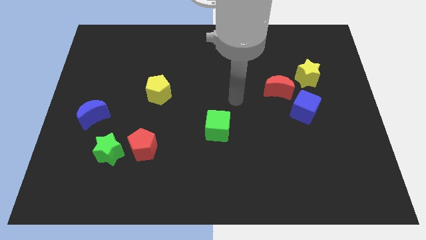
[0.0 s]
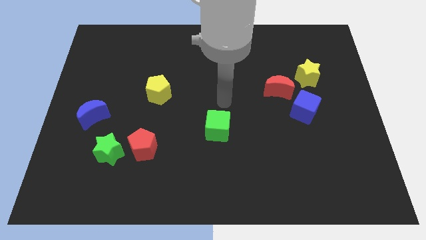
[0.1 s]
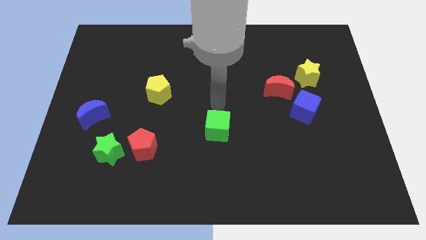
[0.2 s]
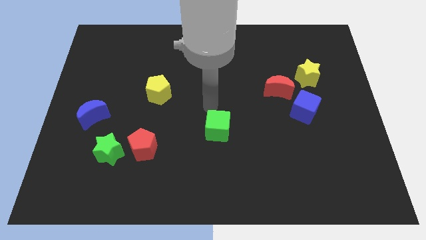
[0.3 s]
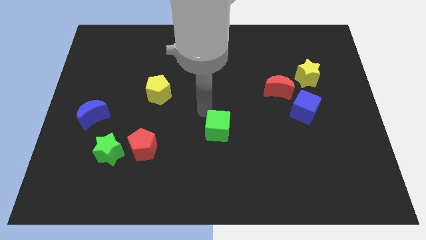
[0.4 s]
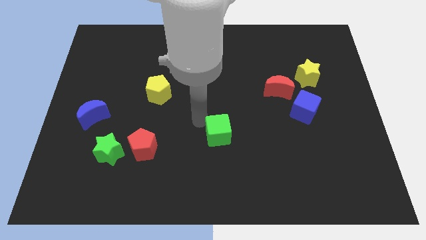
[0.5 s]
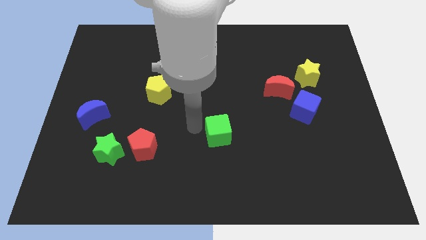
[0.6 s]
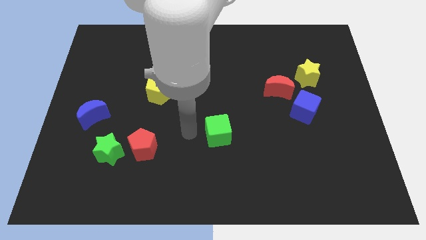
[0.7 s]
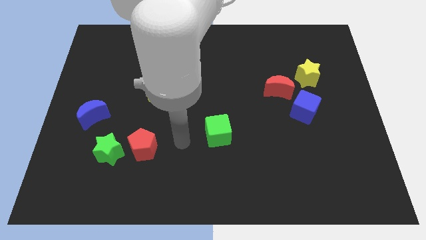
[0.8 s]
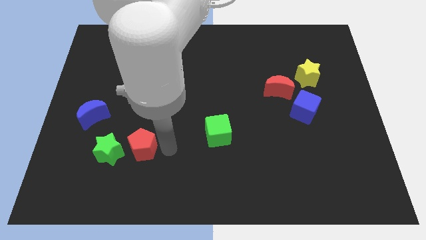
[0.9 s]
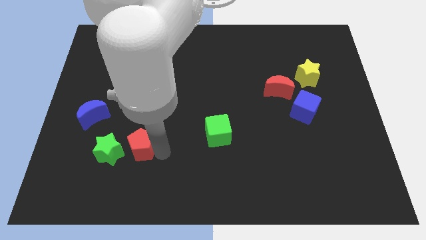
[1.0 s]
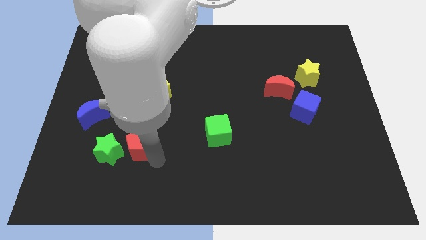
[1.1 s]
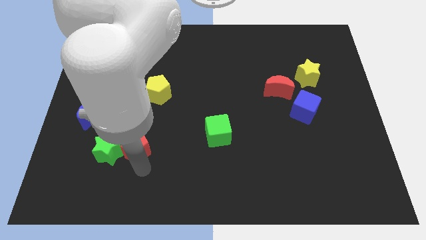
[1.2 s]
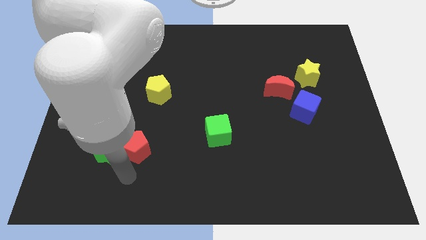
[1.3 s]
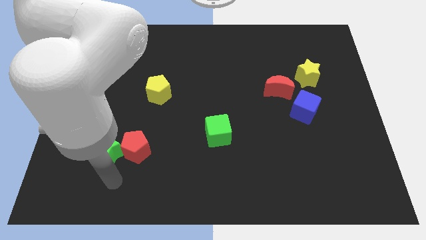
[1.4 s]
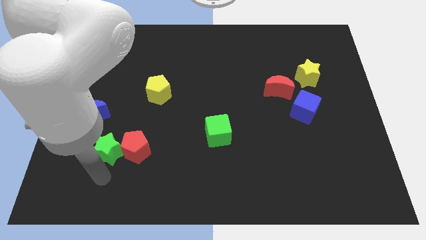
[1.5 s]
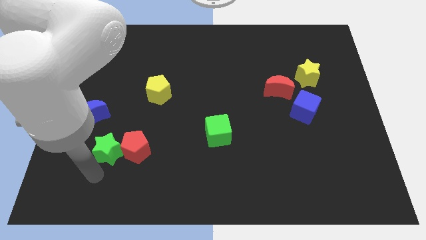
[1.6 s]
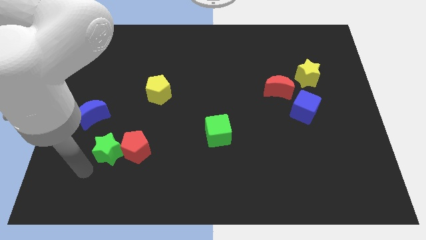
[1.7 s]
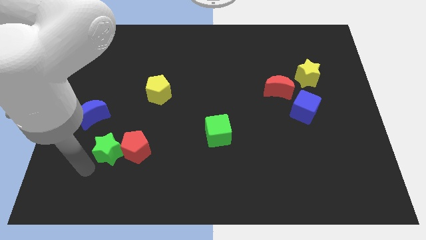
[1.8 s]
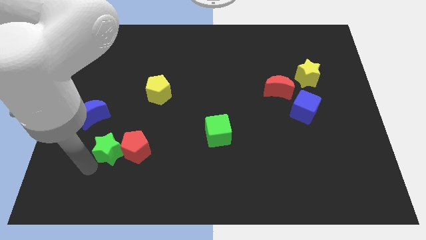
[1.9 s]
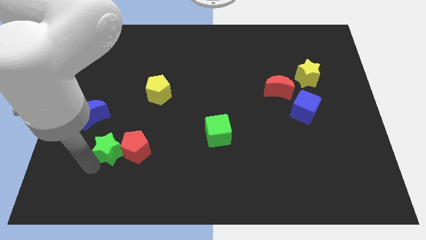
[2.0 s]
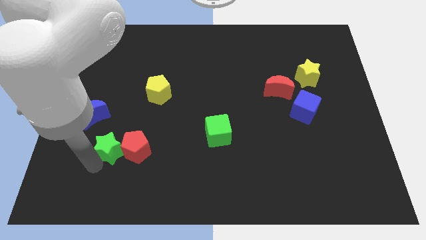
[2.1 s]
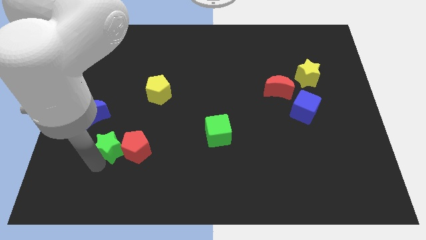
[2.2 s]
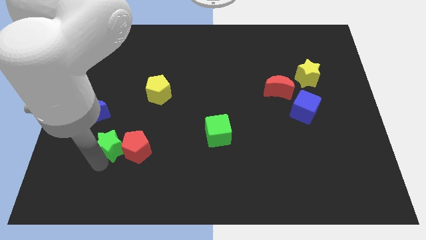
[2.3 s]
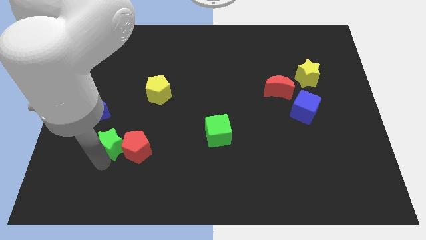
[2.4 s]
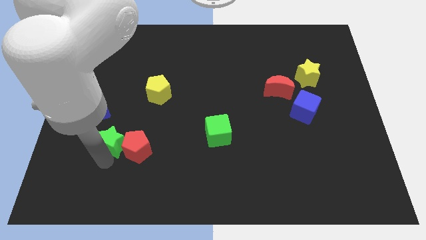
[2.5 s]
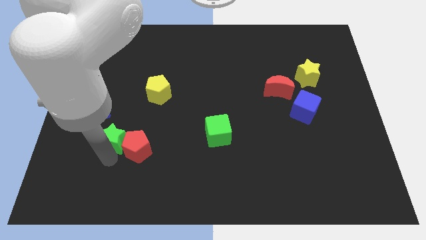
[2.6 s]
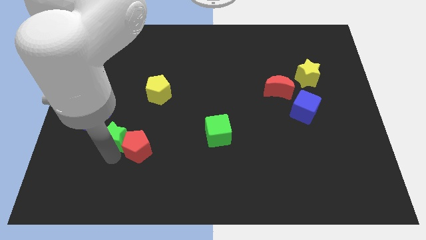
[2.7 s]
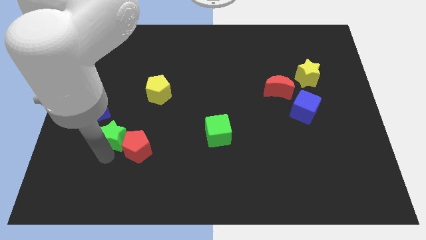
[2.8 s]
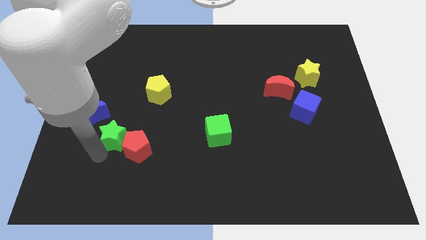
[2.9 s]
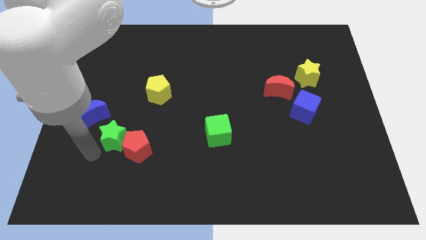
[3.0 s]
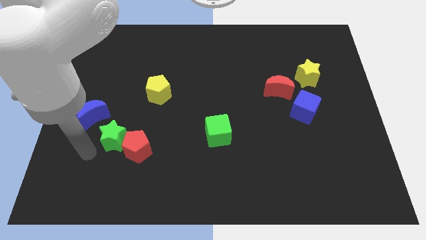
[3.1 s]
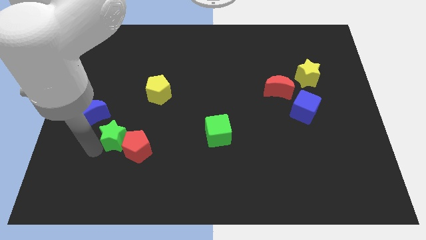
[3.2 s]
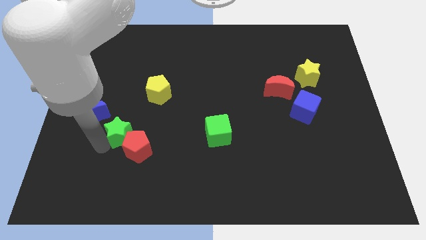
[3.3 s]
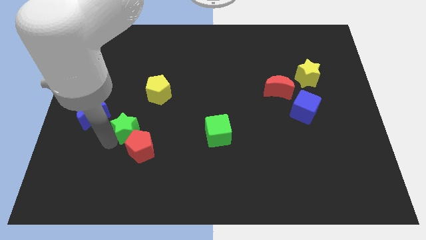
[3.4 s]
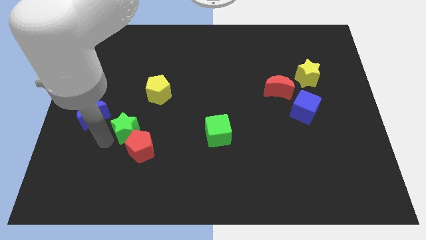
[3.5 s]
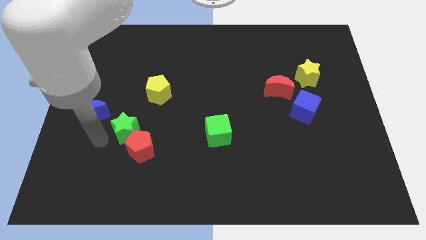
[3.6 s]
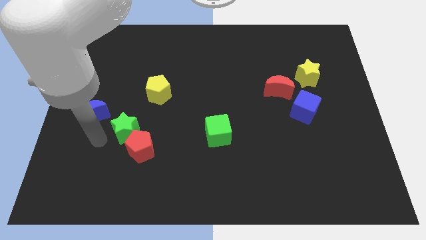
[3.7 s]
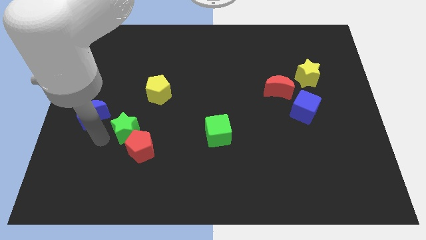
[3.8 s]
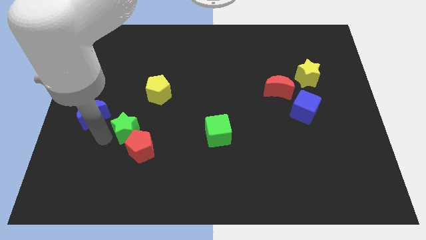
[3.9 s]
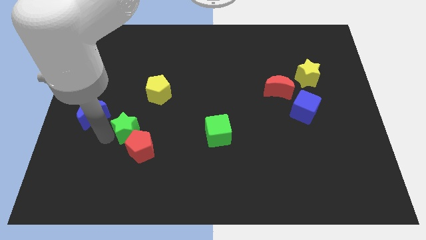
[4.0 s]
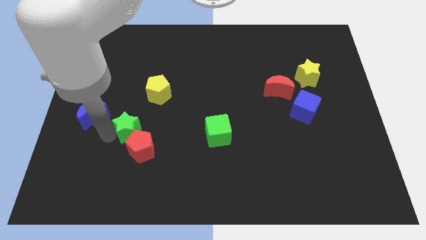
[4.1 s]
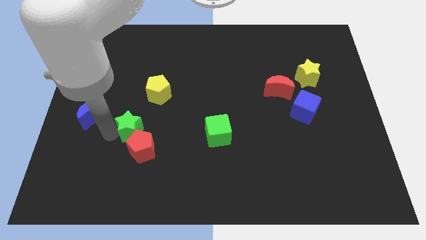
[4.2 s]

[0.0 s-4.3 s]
slightly slide the green star diagonally up and to the right

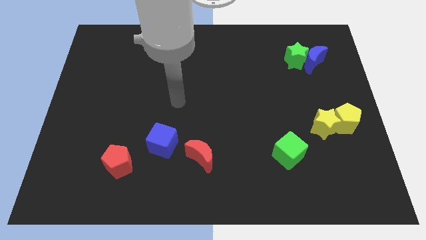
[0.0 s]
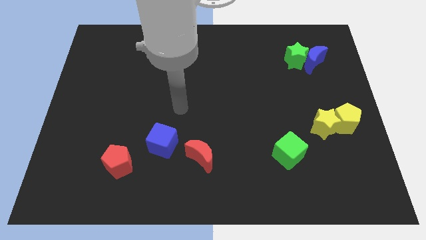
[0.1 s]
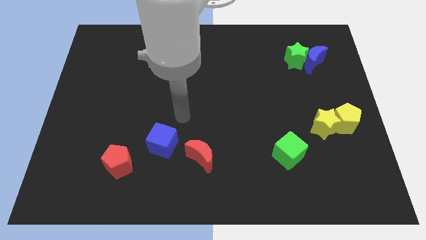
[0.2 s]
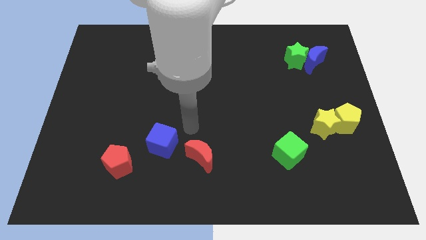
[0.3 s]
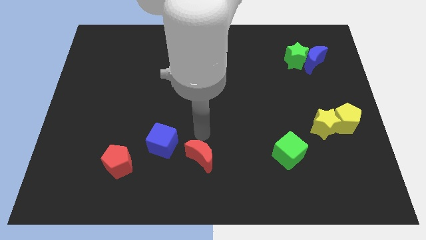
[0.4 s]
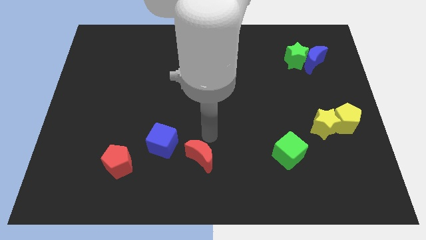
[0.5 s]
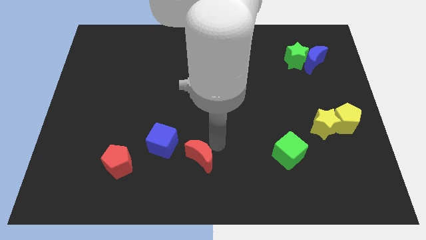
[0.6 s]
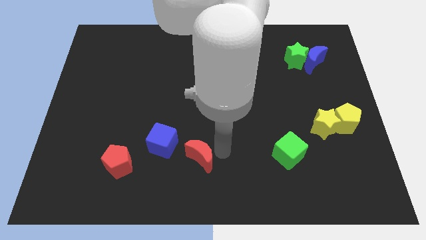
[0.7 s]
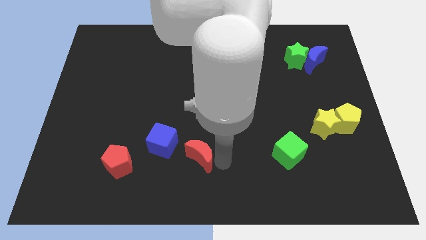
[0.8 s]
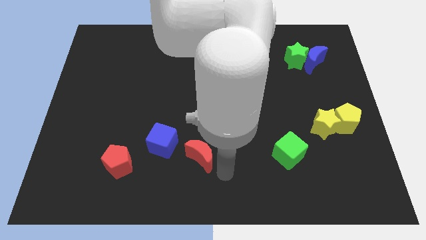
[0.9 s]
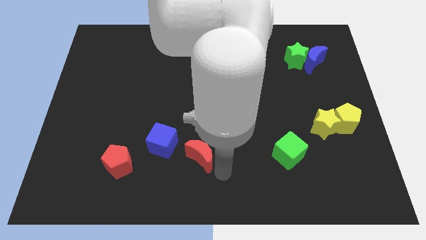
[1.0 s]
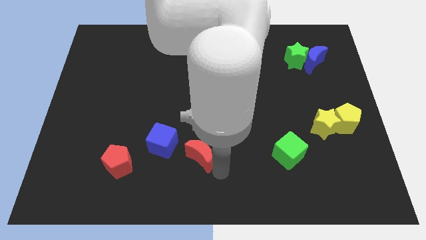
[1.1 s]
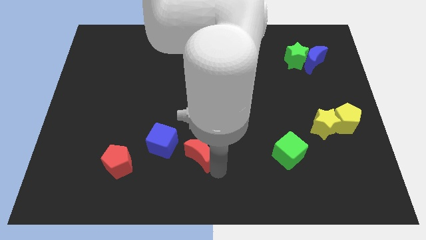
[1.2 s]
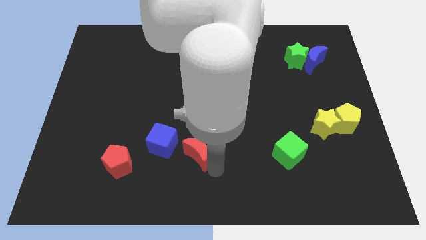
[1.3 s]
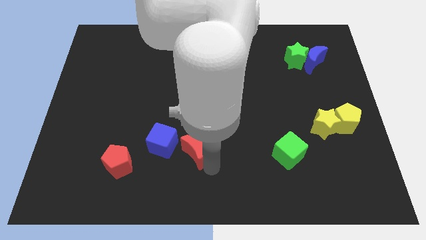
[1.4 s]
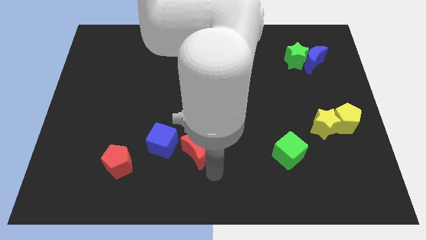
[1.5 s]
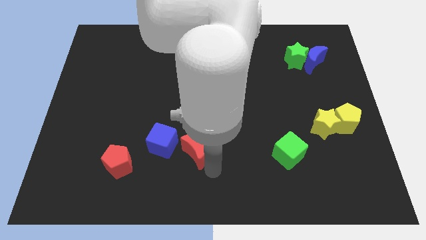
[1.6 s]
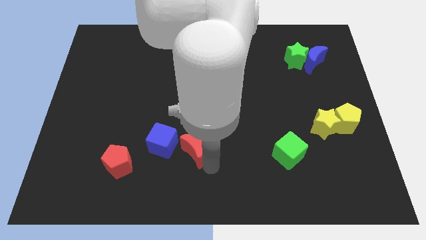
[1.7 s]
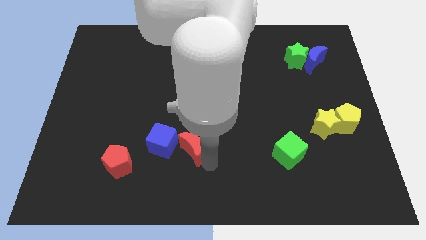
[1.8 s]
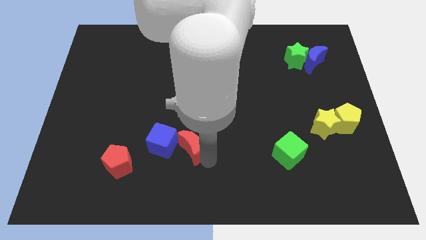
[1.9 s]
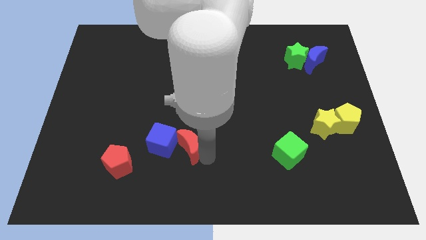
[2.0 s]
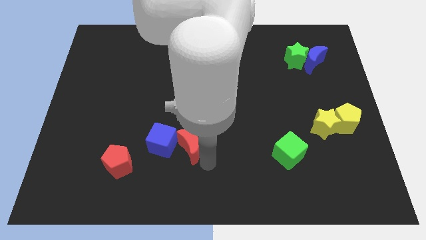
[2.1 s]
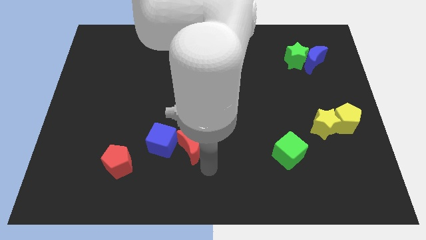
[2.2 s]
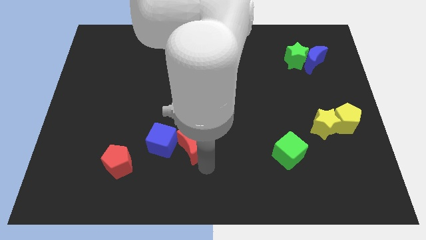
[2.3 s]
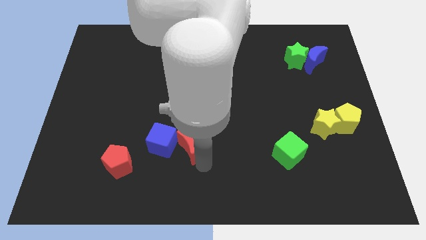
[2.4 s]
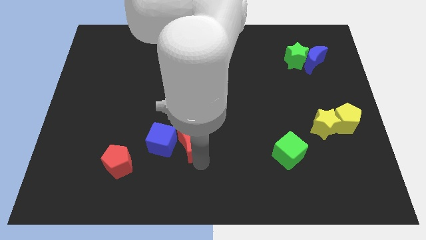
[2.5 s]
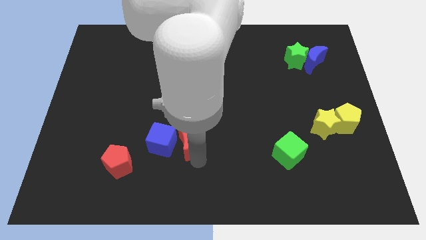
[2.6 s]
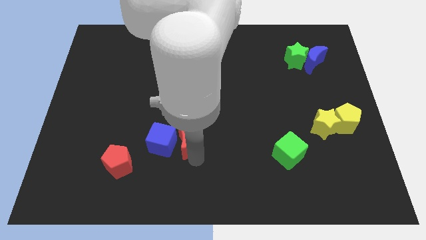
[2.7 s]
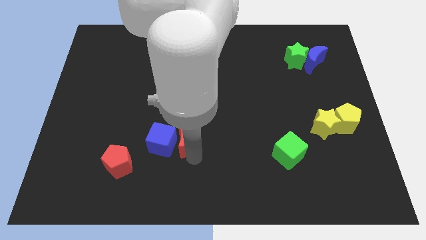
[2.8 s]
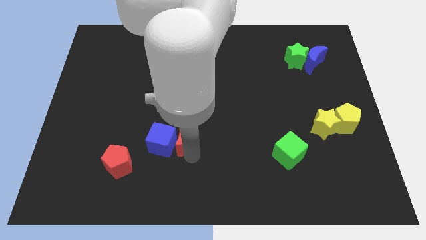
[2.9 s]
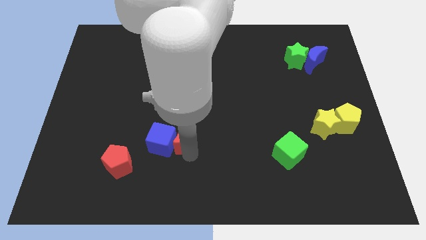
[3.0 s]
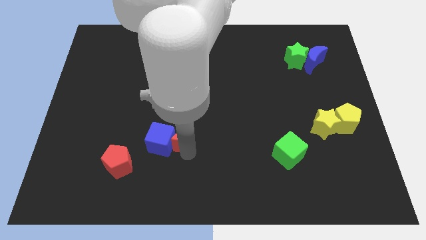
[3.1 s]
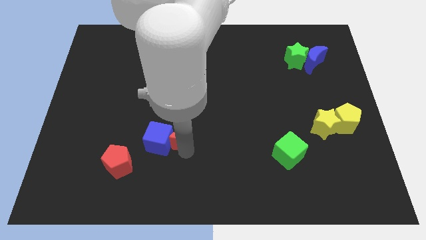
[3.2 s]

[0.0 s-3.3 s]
slide the red moon upwards and left diagonally a little

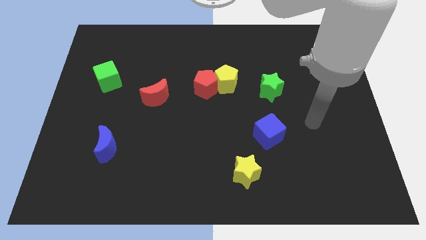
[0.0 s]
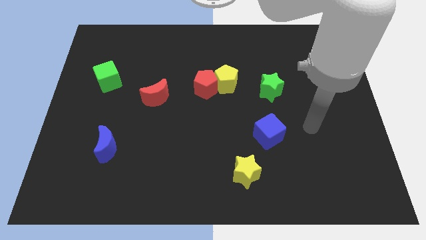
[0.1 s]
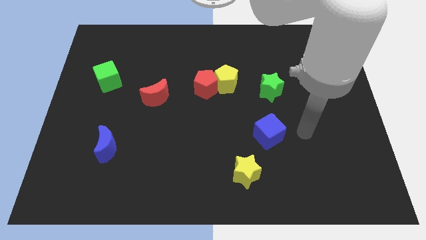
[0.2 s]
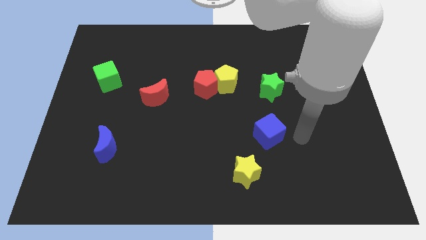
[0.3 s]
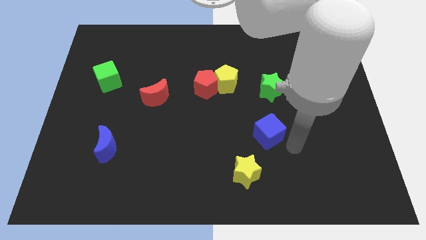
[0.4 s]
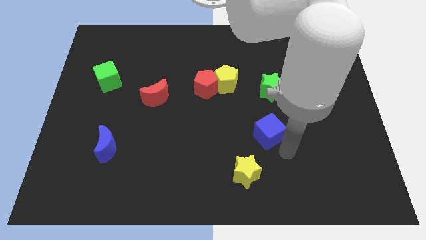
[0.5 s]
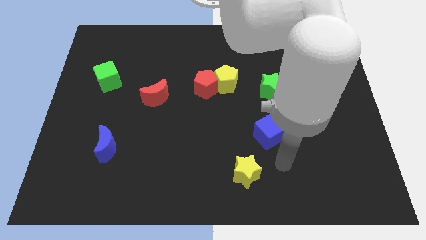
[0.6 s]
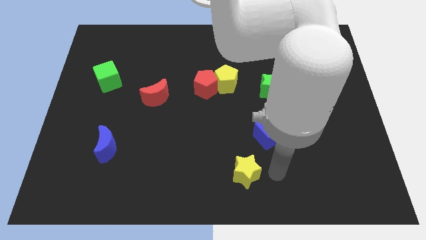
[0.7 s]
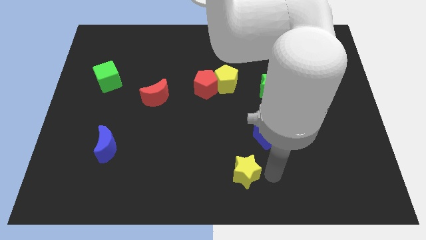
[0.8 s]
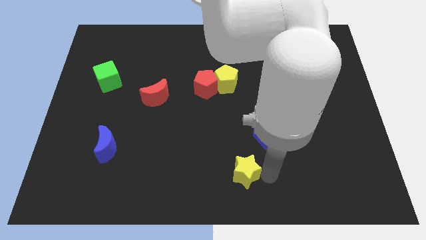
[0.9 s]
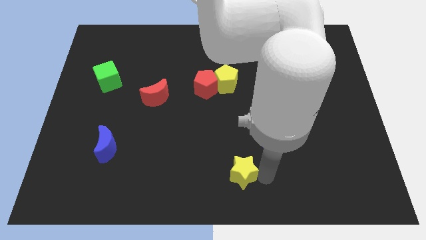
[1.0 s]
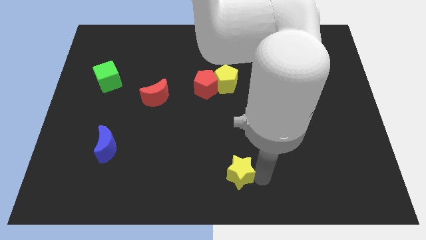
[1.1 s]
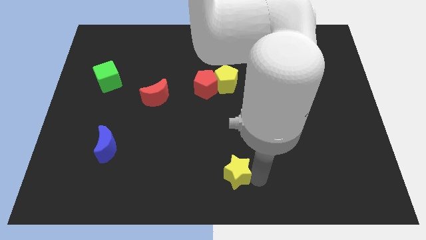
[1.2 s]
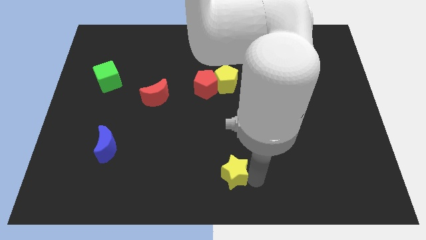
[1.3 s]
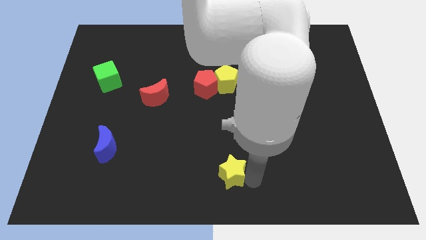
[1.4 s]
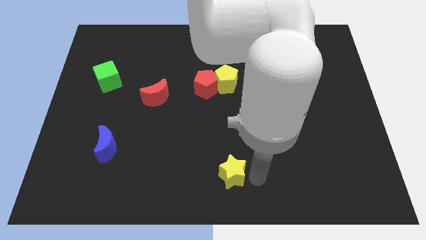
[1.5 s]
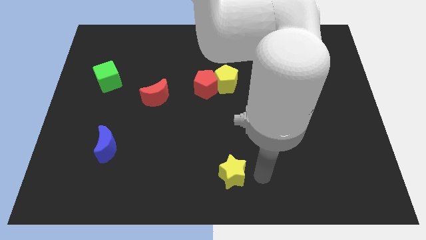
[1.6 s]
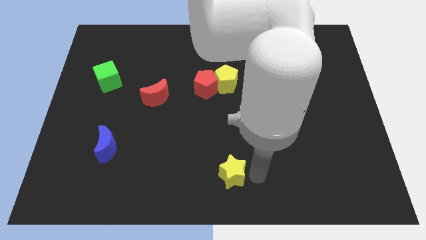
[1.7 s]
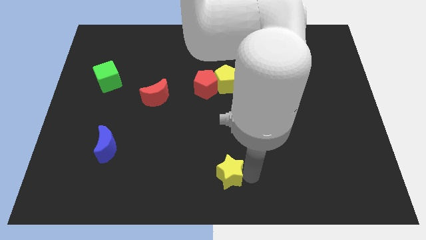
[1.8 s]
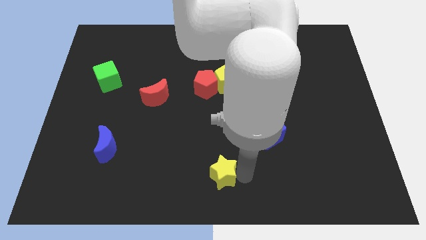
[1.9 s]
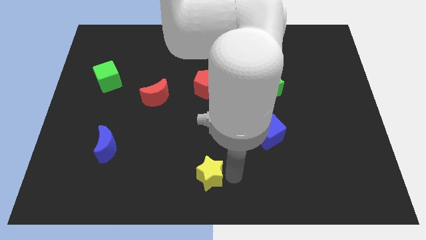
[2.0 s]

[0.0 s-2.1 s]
slide the yellow star a little bit to the left
